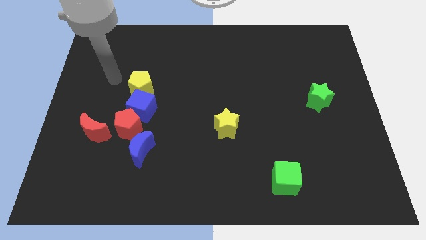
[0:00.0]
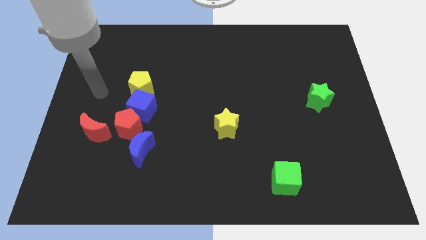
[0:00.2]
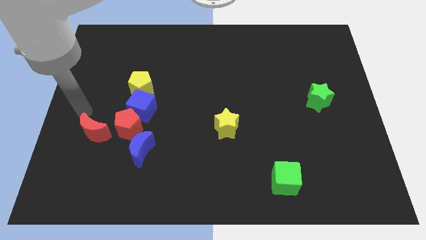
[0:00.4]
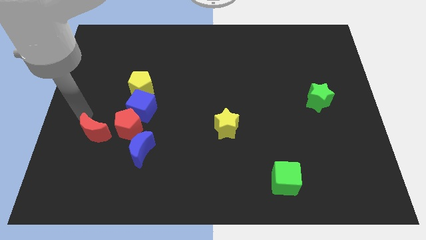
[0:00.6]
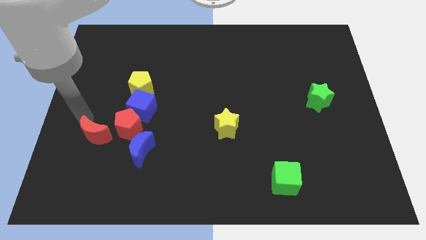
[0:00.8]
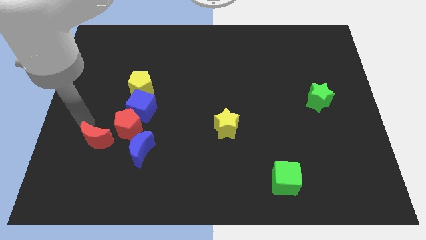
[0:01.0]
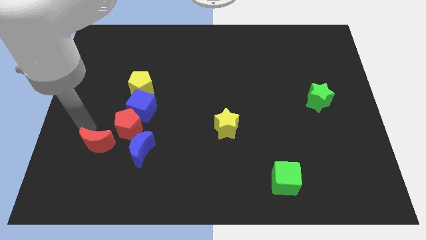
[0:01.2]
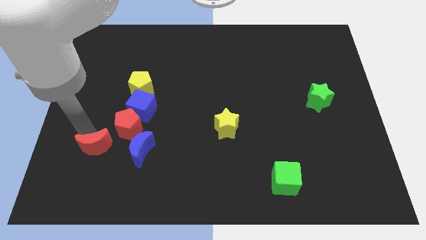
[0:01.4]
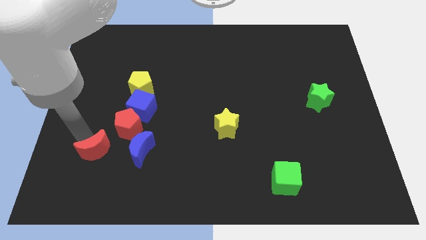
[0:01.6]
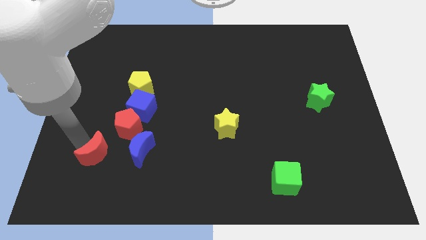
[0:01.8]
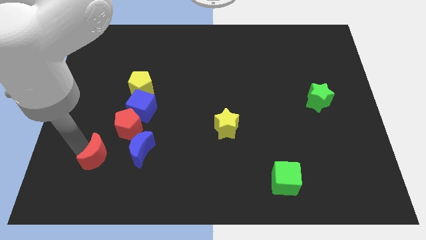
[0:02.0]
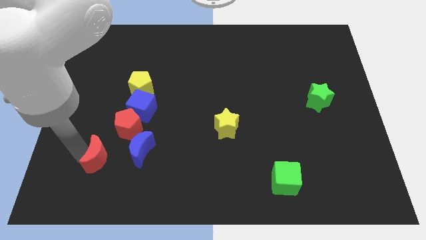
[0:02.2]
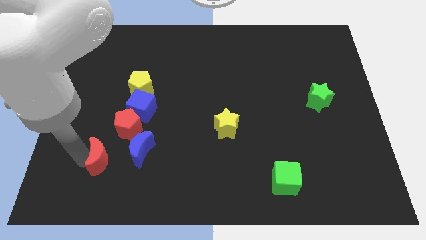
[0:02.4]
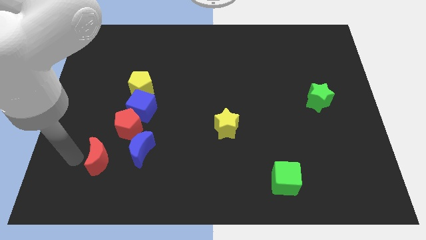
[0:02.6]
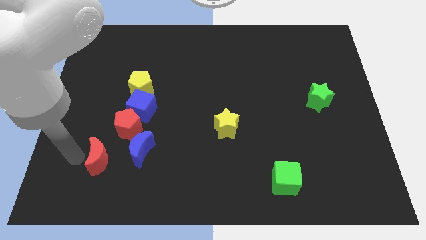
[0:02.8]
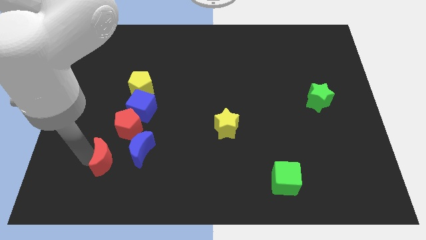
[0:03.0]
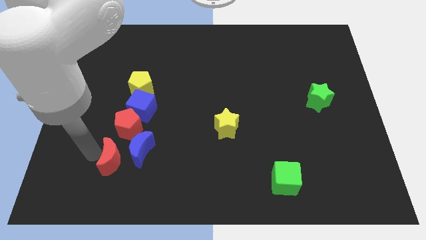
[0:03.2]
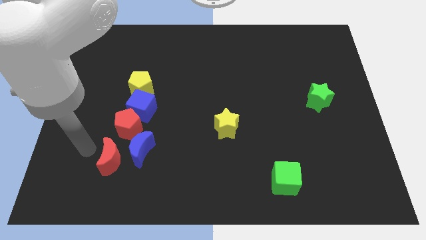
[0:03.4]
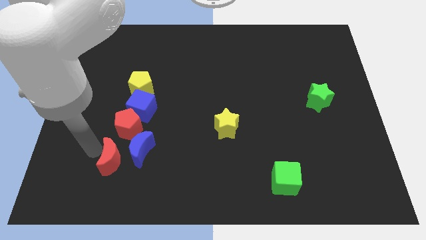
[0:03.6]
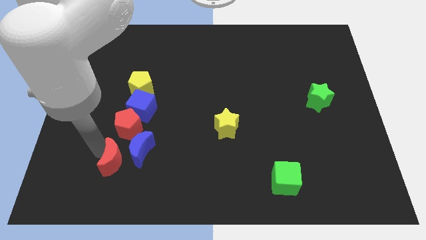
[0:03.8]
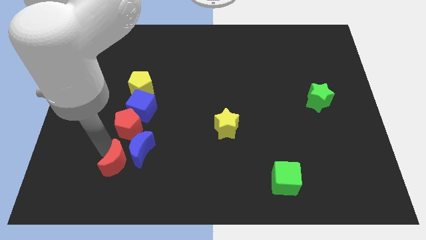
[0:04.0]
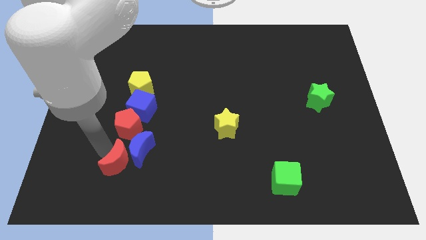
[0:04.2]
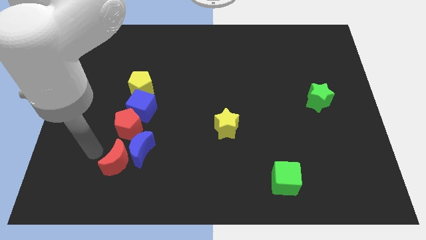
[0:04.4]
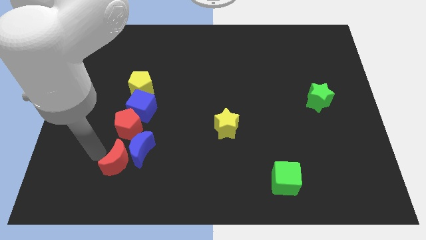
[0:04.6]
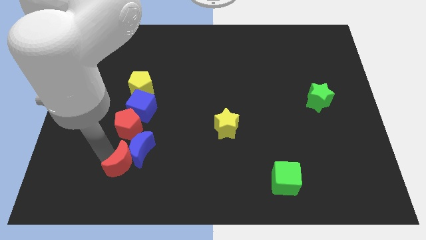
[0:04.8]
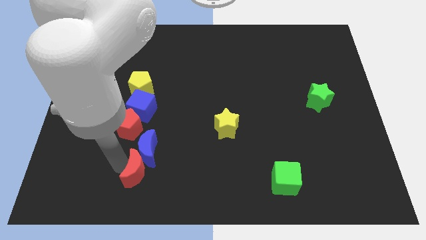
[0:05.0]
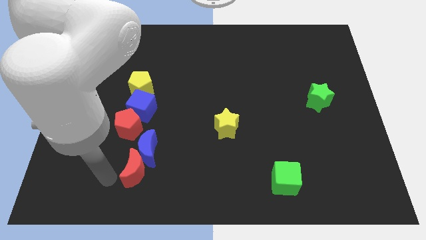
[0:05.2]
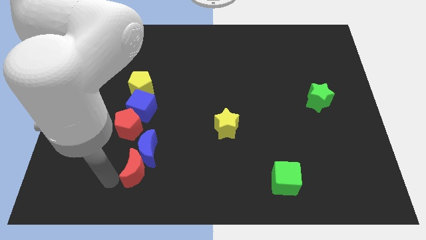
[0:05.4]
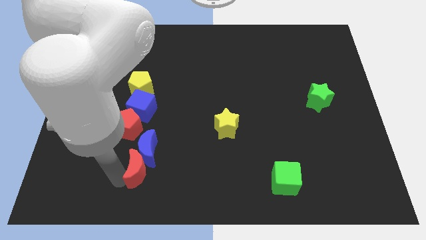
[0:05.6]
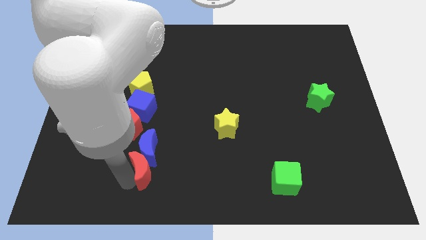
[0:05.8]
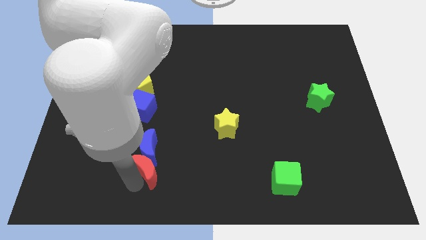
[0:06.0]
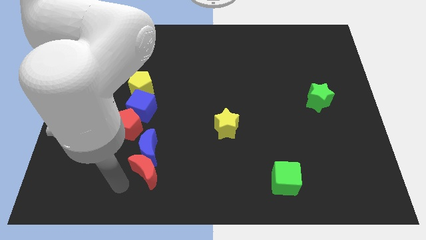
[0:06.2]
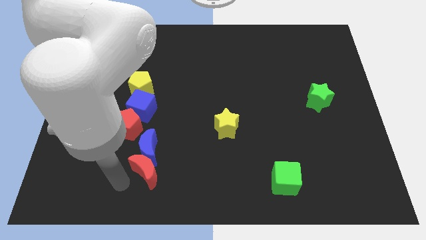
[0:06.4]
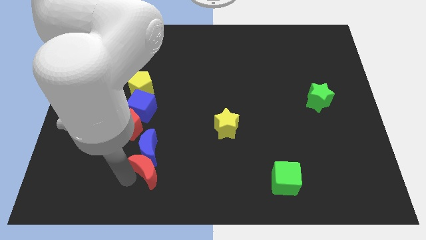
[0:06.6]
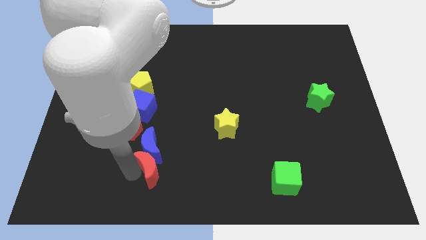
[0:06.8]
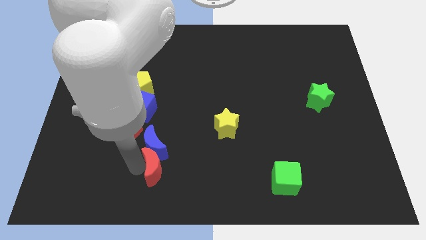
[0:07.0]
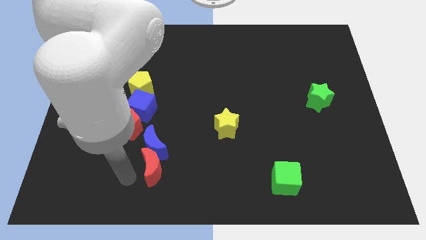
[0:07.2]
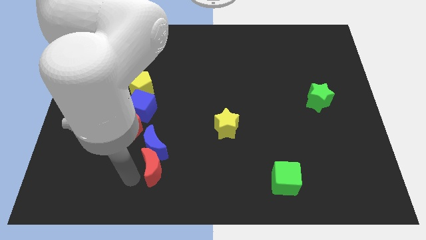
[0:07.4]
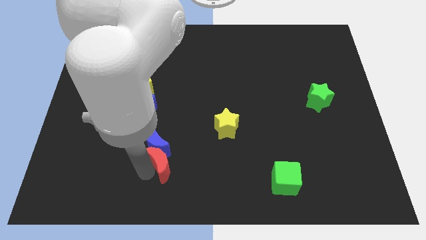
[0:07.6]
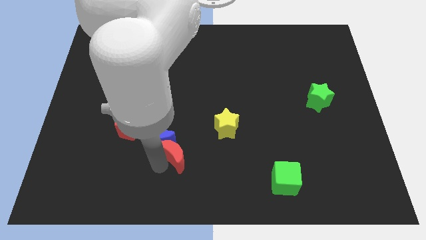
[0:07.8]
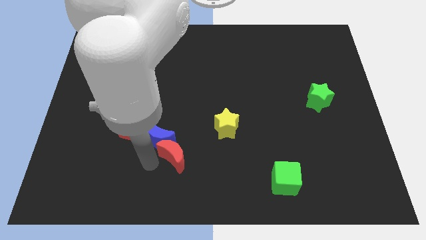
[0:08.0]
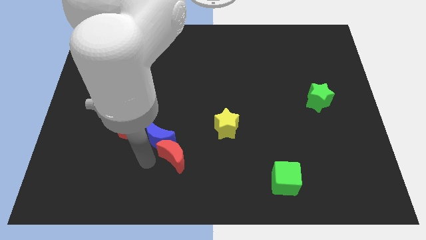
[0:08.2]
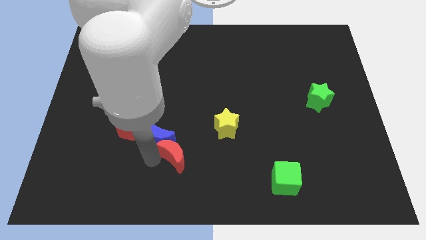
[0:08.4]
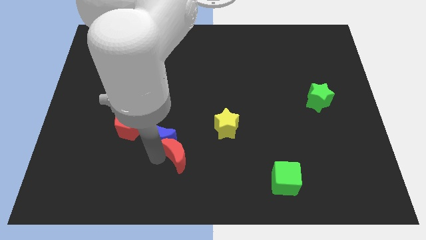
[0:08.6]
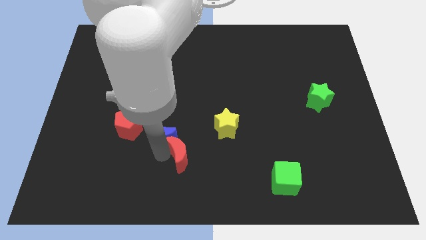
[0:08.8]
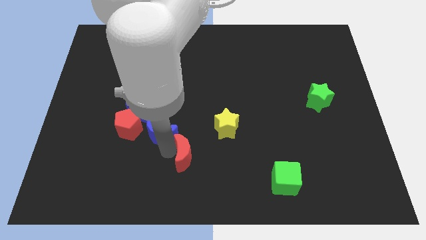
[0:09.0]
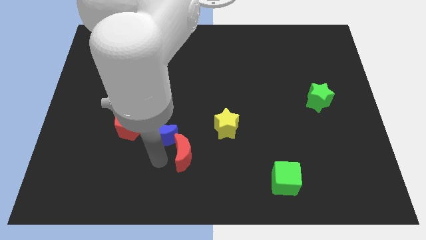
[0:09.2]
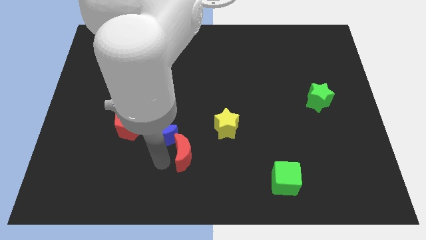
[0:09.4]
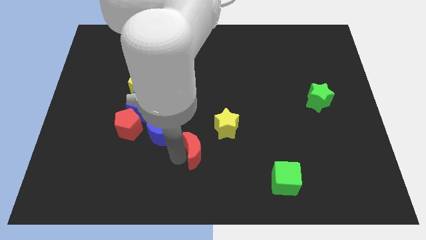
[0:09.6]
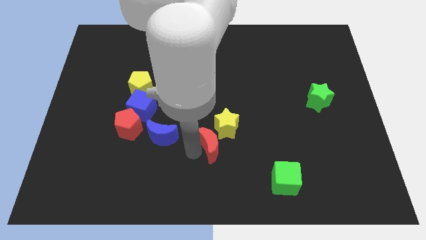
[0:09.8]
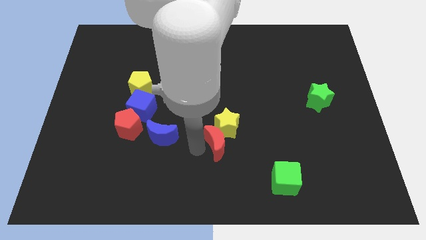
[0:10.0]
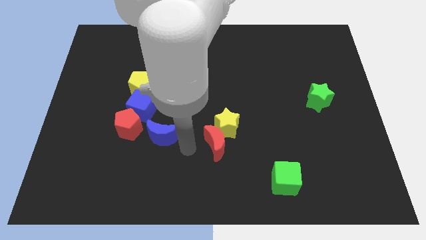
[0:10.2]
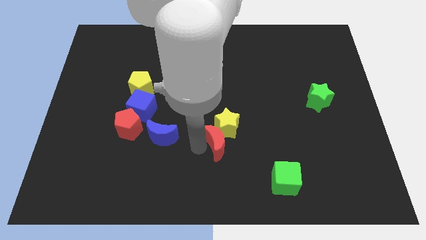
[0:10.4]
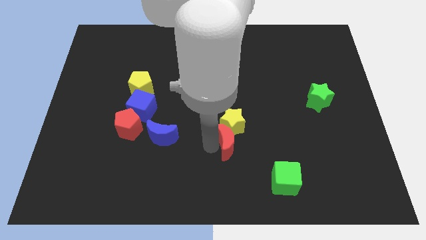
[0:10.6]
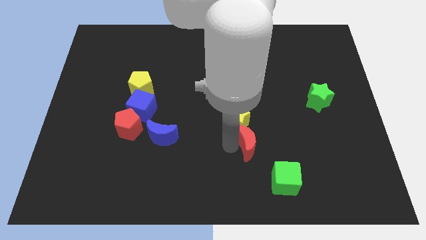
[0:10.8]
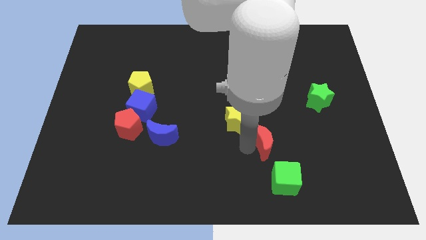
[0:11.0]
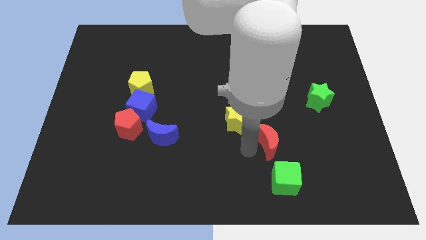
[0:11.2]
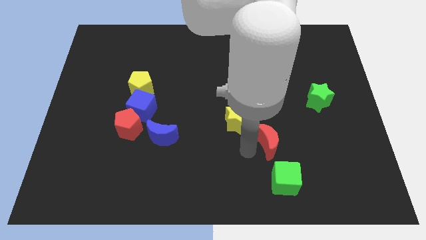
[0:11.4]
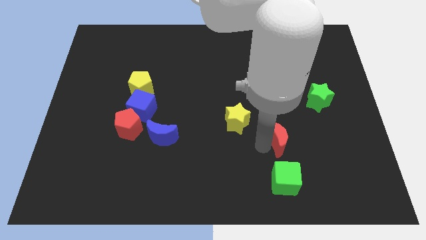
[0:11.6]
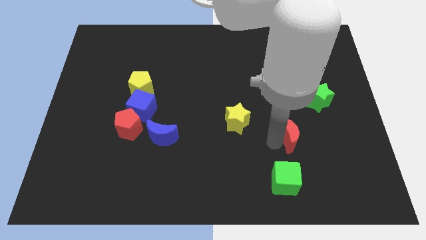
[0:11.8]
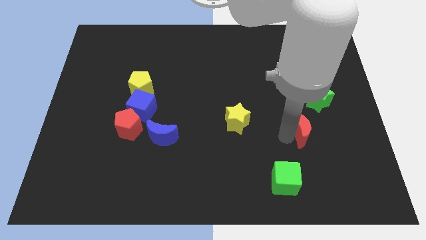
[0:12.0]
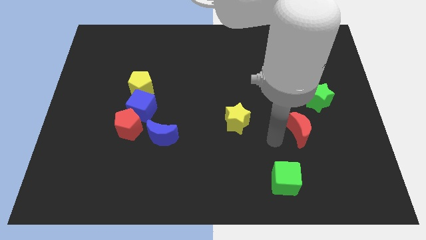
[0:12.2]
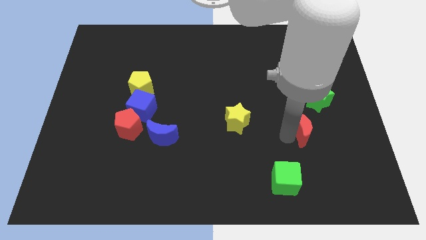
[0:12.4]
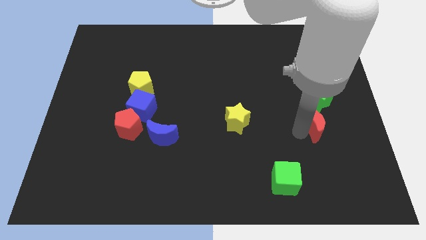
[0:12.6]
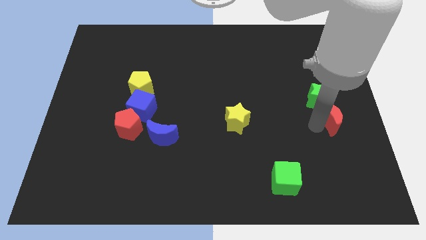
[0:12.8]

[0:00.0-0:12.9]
slide the red moon to the right side
